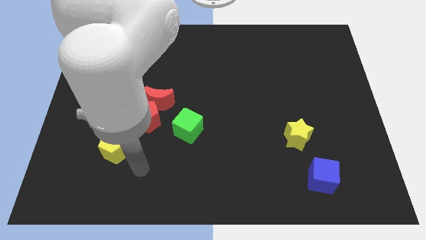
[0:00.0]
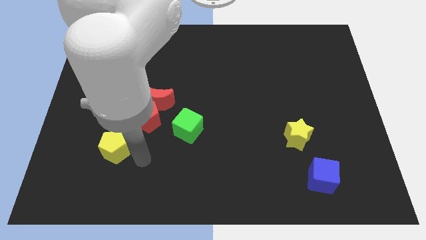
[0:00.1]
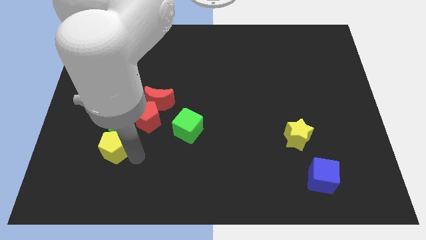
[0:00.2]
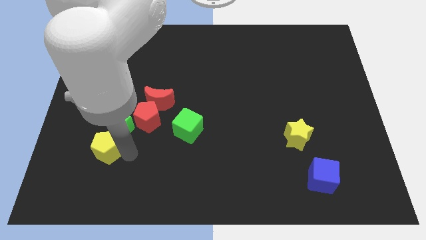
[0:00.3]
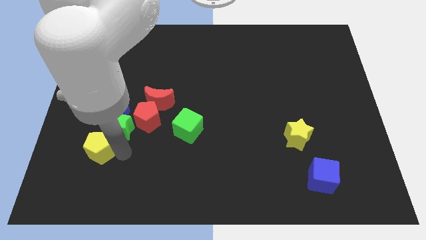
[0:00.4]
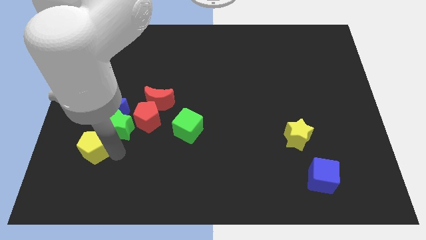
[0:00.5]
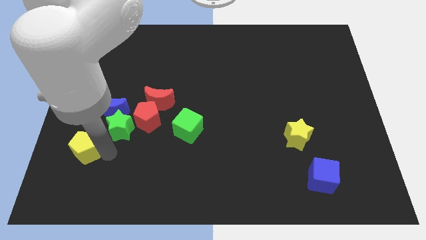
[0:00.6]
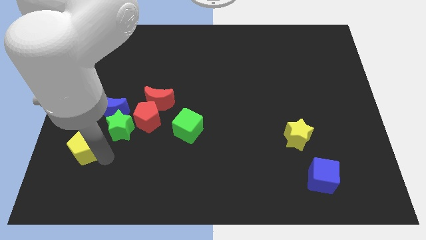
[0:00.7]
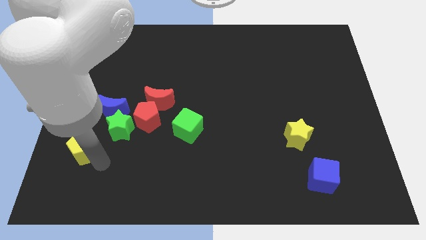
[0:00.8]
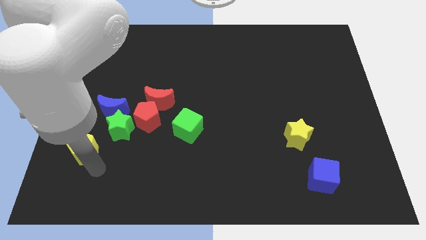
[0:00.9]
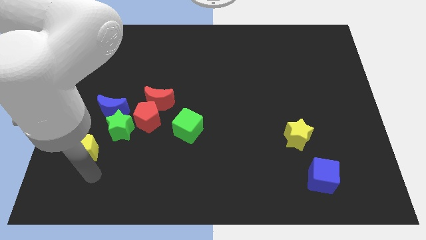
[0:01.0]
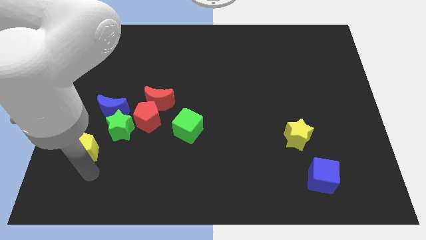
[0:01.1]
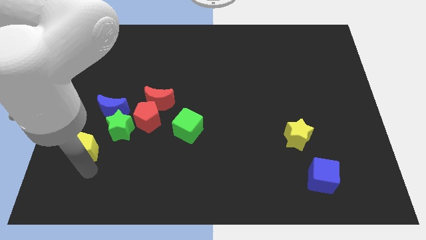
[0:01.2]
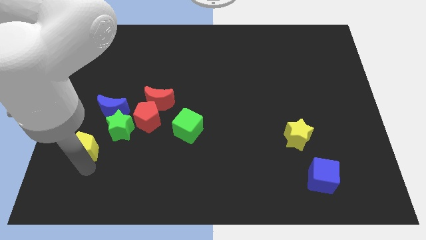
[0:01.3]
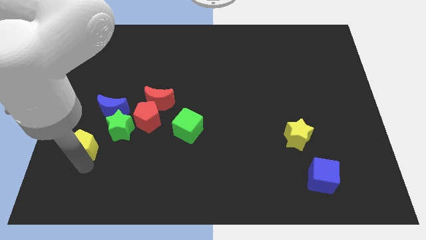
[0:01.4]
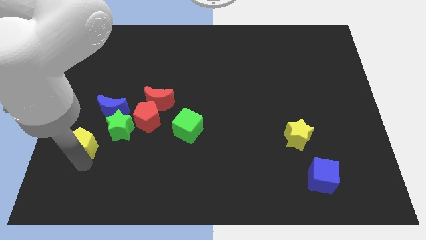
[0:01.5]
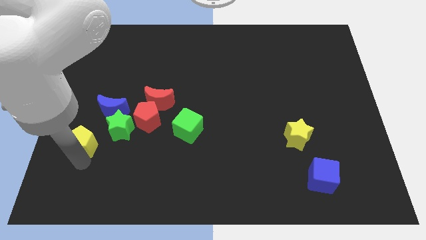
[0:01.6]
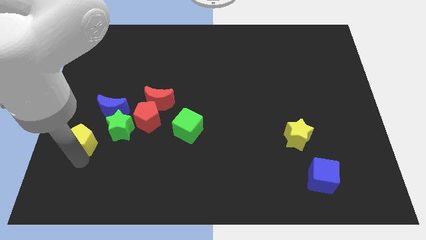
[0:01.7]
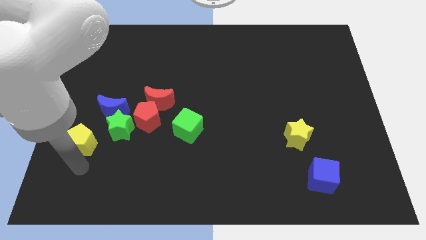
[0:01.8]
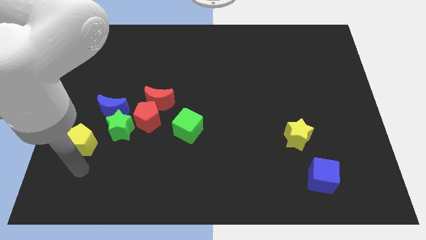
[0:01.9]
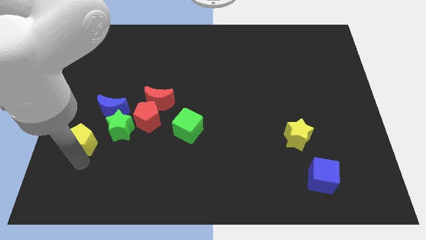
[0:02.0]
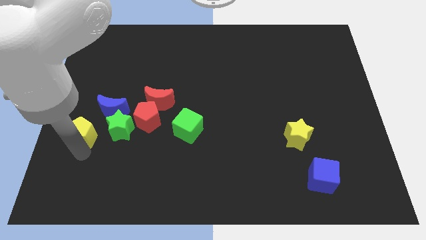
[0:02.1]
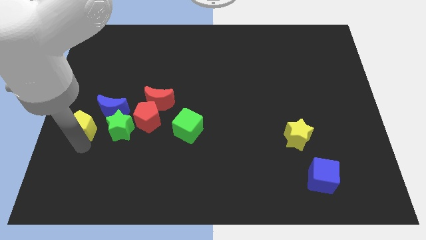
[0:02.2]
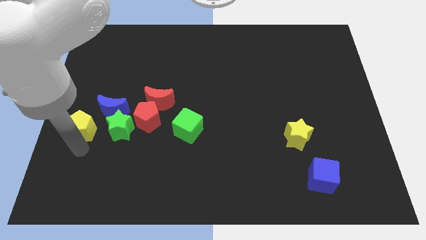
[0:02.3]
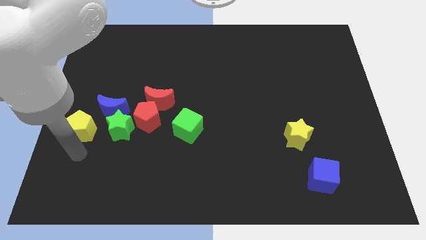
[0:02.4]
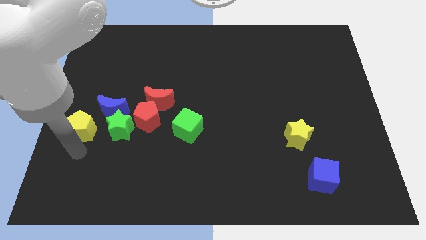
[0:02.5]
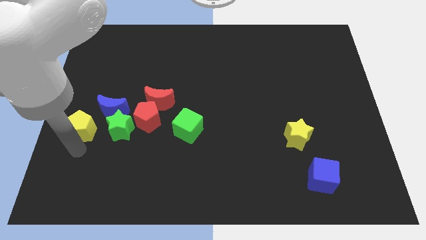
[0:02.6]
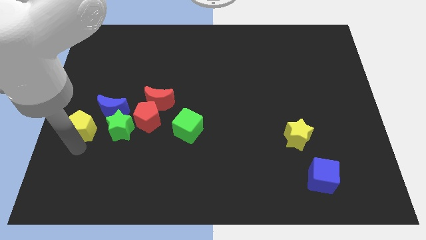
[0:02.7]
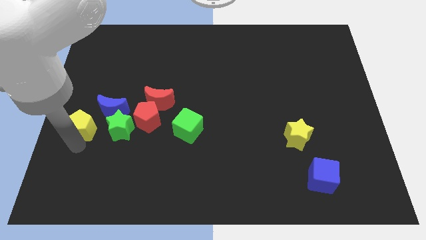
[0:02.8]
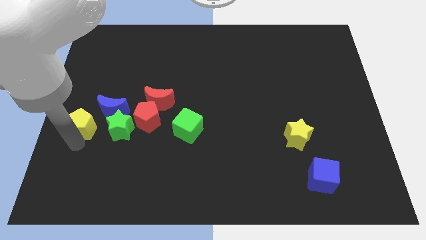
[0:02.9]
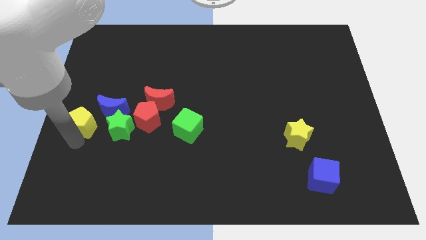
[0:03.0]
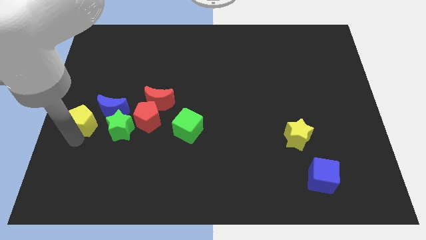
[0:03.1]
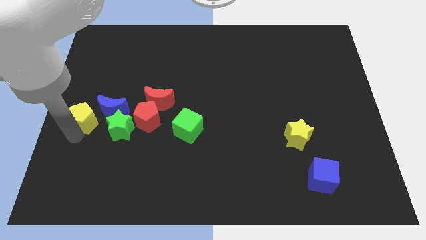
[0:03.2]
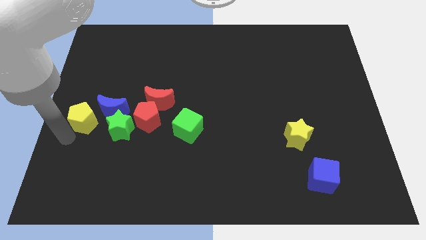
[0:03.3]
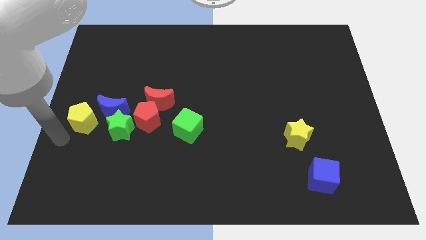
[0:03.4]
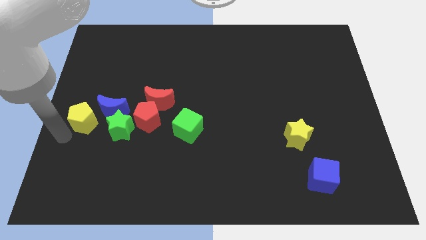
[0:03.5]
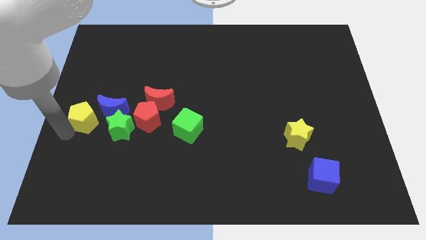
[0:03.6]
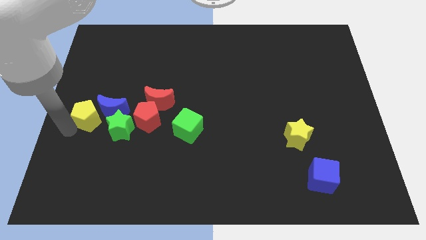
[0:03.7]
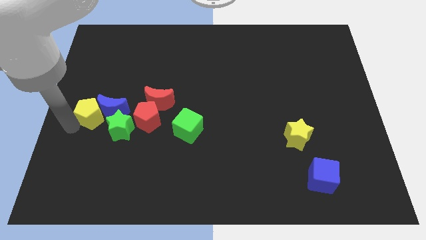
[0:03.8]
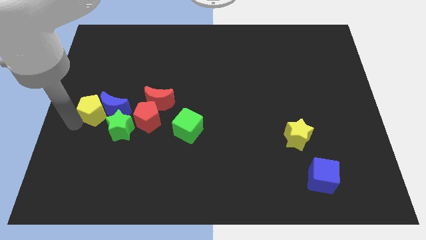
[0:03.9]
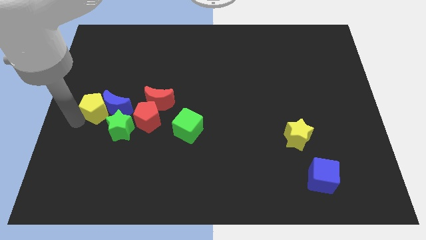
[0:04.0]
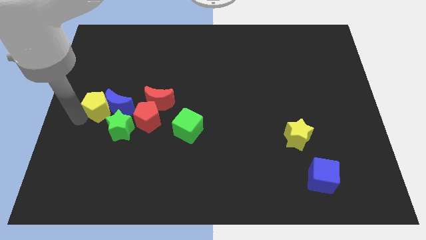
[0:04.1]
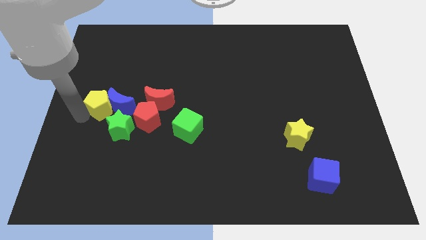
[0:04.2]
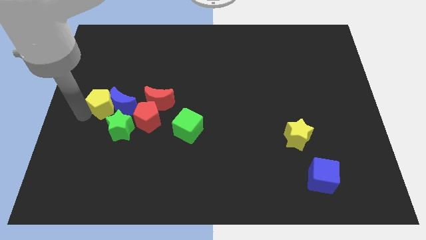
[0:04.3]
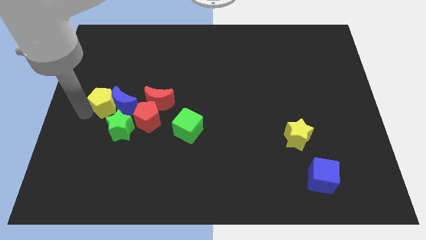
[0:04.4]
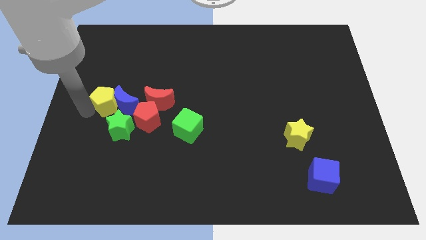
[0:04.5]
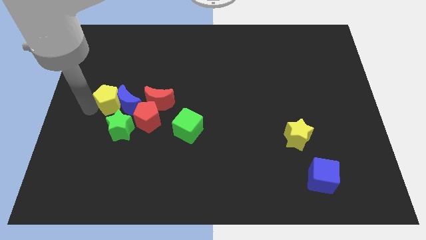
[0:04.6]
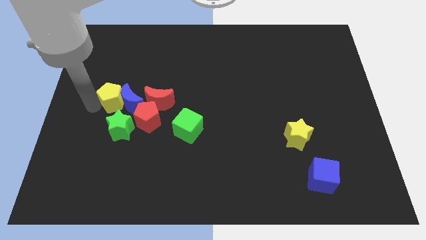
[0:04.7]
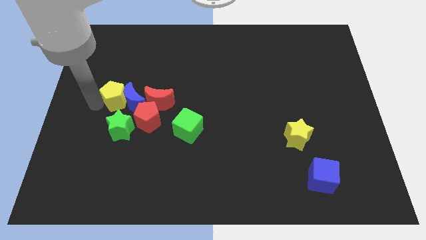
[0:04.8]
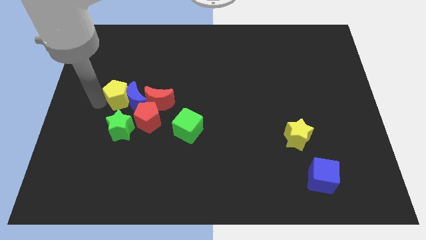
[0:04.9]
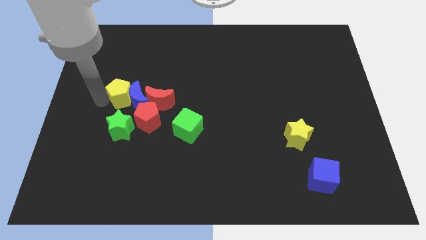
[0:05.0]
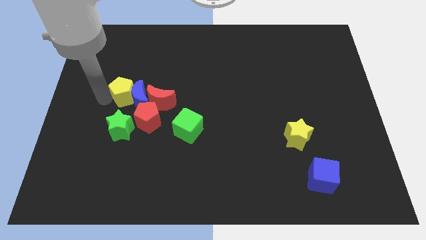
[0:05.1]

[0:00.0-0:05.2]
put the yellow pentagon diagonally up and to the left of the red moon

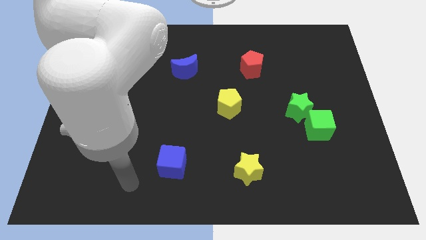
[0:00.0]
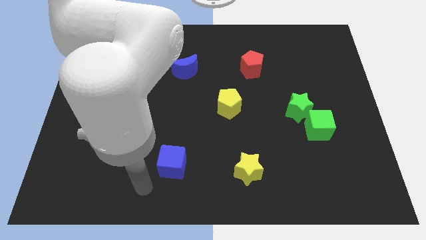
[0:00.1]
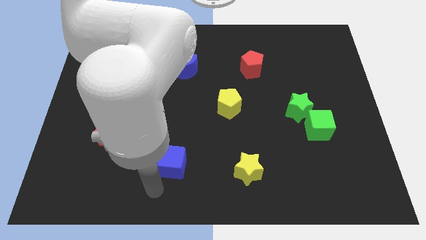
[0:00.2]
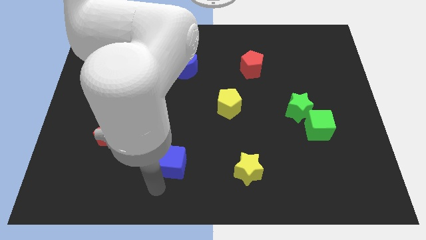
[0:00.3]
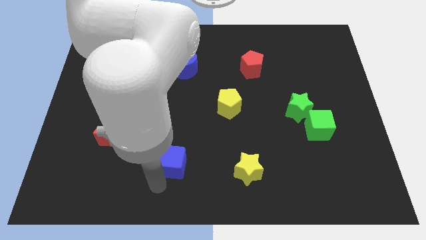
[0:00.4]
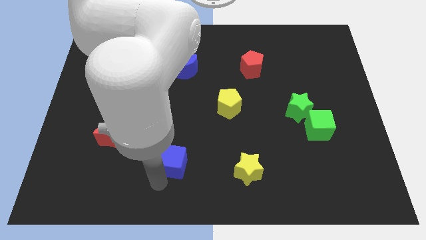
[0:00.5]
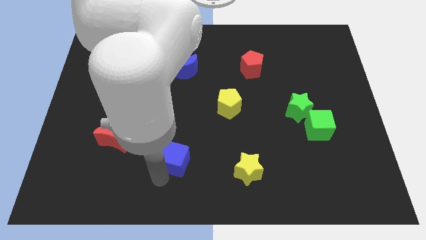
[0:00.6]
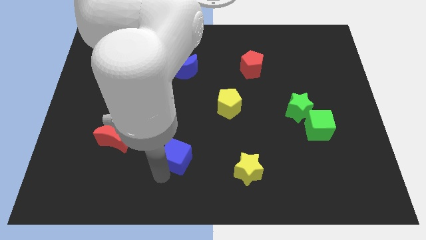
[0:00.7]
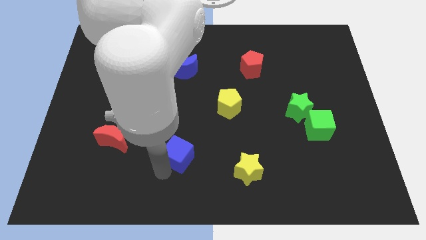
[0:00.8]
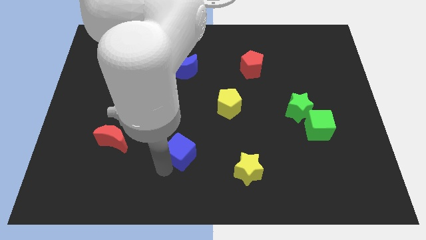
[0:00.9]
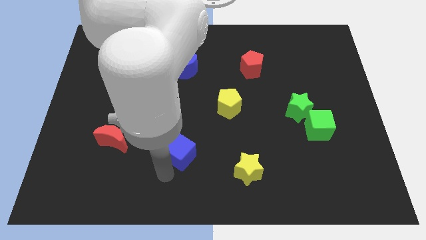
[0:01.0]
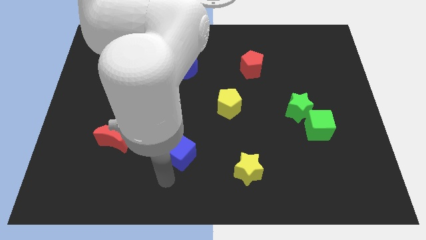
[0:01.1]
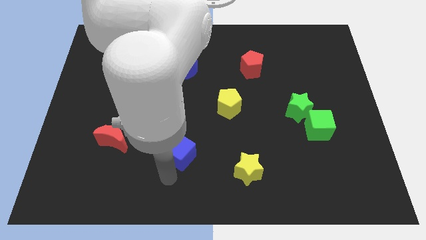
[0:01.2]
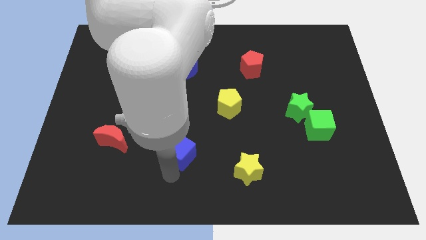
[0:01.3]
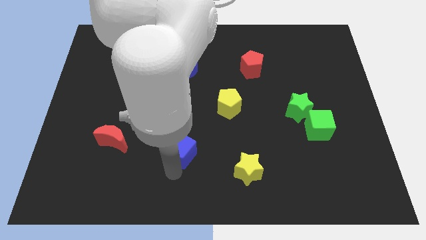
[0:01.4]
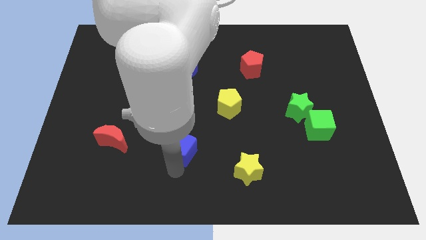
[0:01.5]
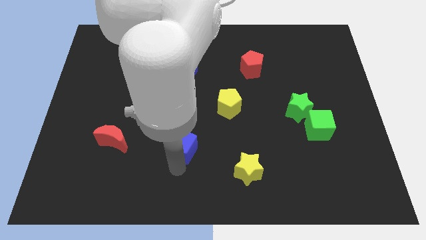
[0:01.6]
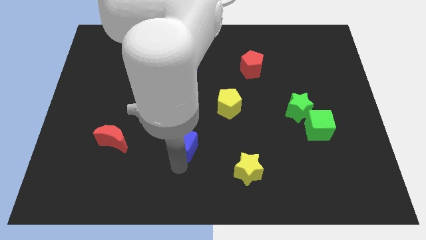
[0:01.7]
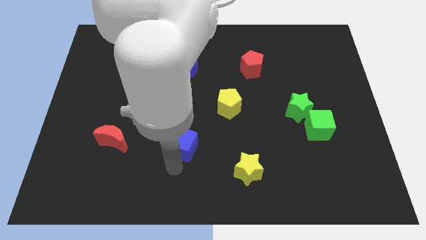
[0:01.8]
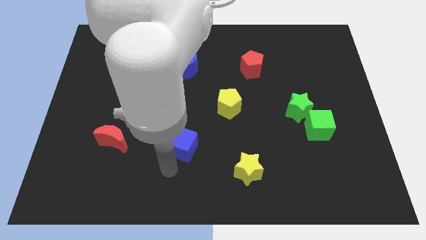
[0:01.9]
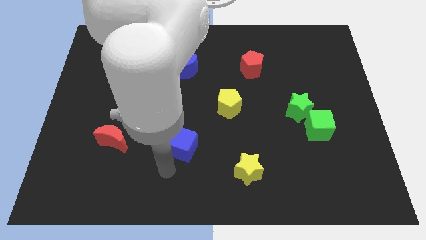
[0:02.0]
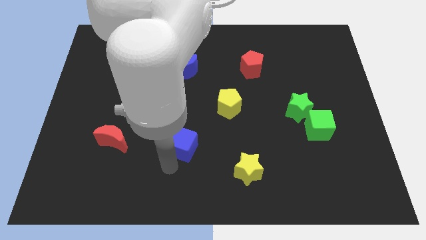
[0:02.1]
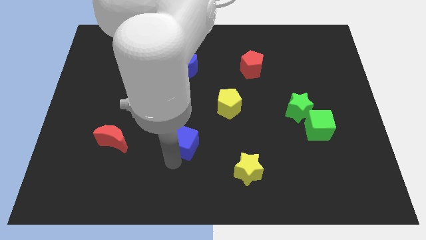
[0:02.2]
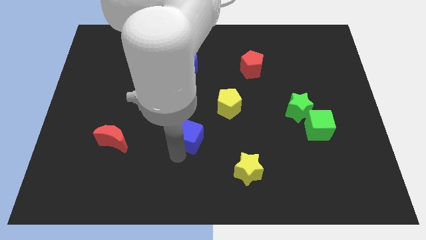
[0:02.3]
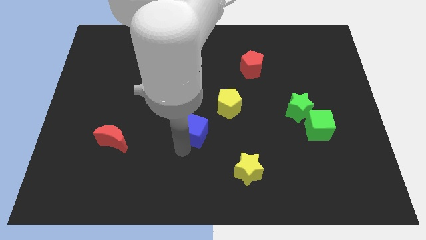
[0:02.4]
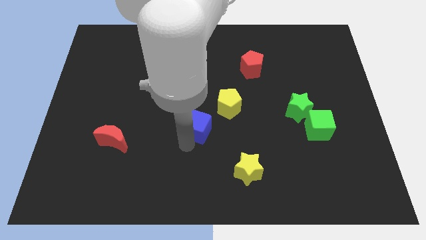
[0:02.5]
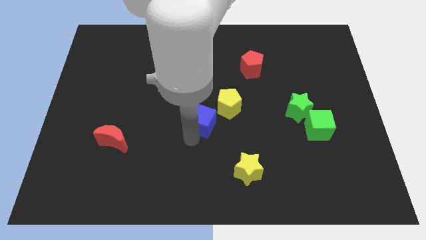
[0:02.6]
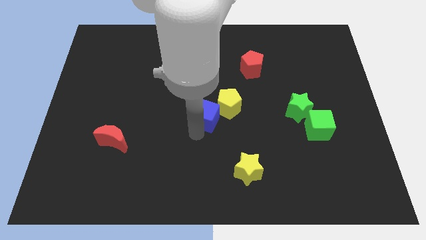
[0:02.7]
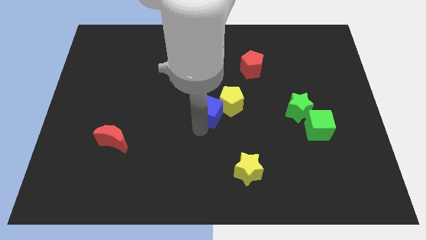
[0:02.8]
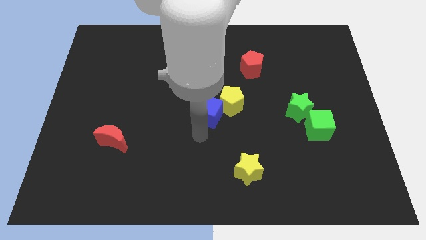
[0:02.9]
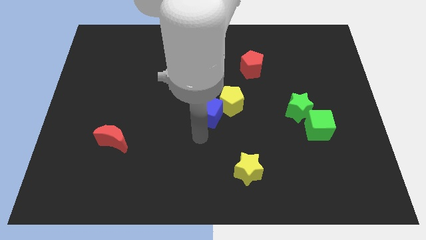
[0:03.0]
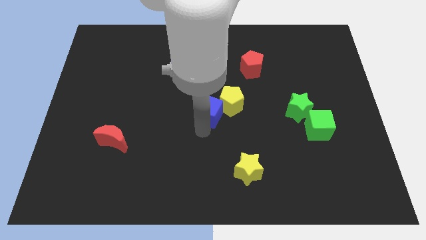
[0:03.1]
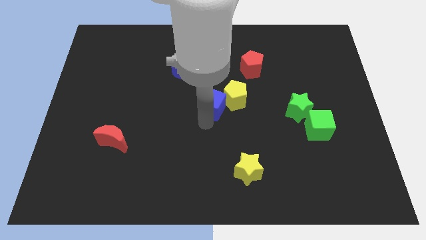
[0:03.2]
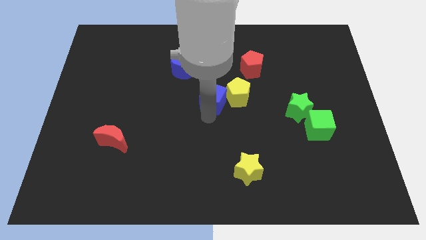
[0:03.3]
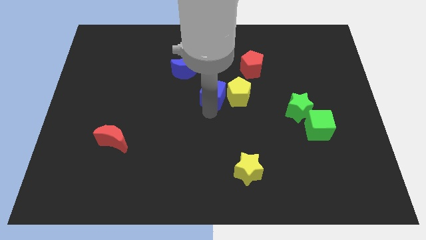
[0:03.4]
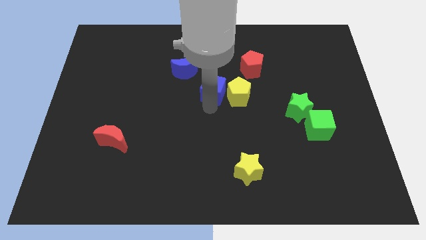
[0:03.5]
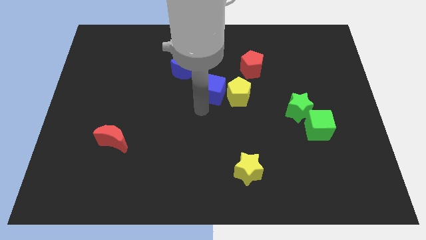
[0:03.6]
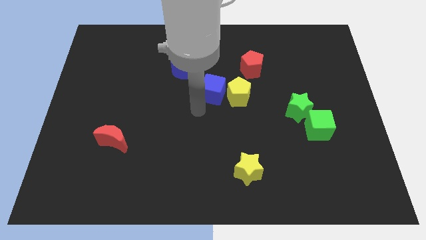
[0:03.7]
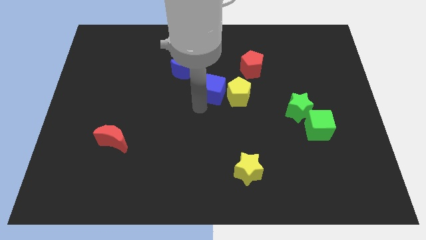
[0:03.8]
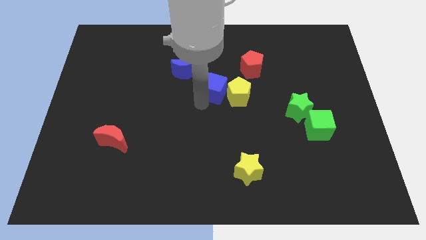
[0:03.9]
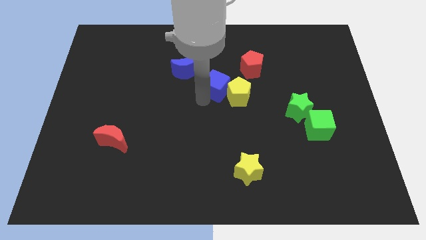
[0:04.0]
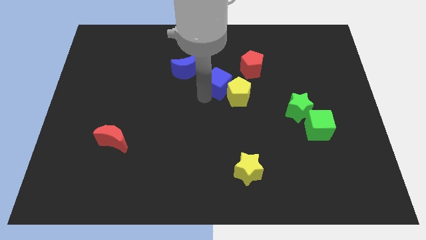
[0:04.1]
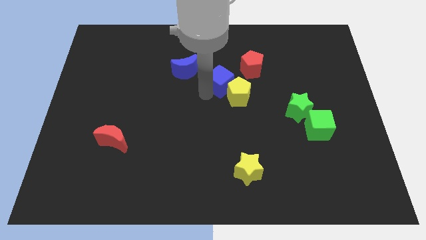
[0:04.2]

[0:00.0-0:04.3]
slide the blue cube above the yellow pentagon
